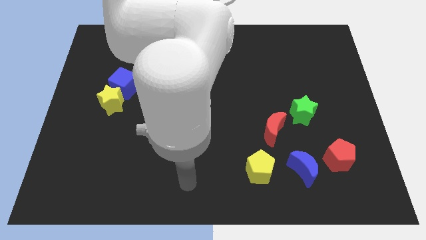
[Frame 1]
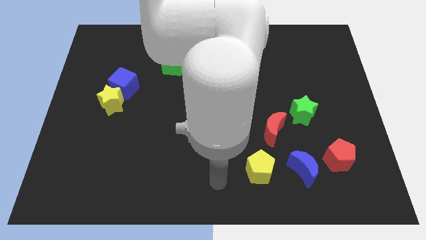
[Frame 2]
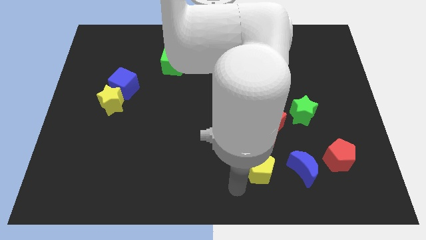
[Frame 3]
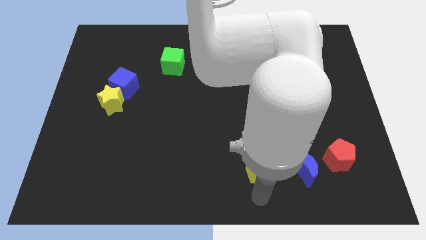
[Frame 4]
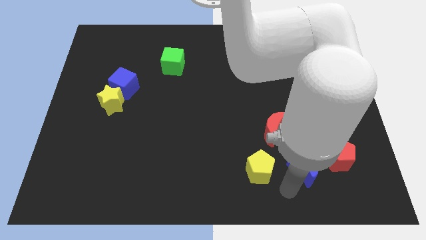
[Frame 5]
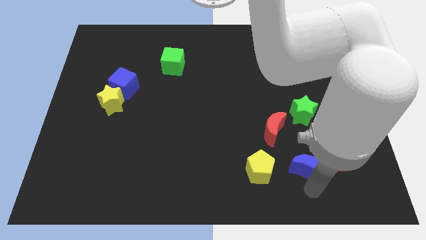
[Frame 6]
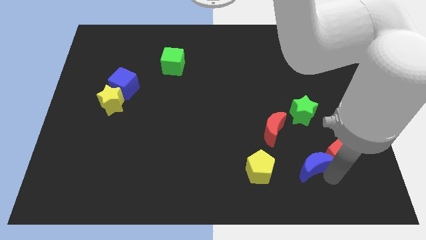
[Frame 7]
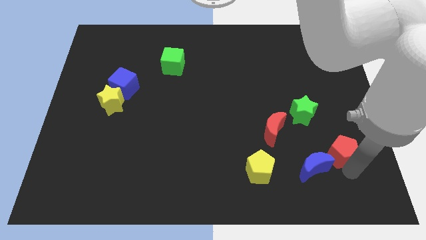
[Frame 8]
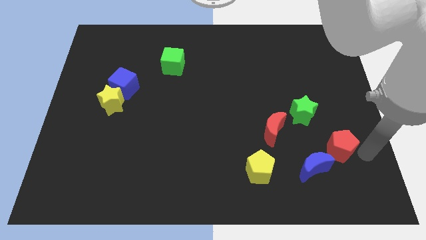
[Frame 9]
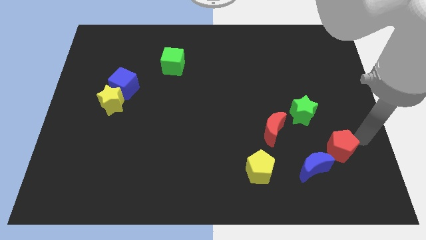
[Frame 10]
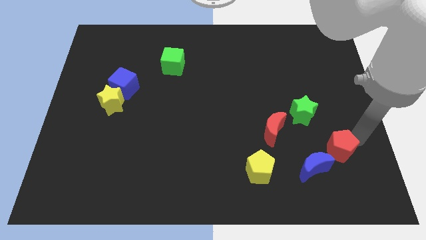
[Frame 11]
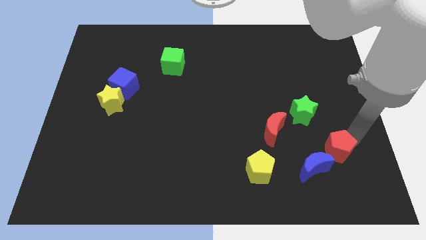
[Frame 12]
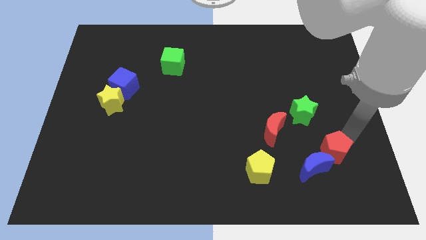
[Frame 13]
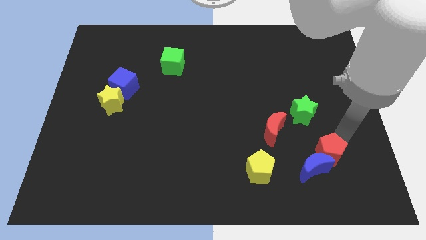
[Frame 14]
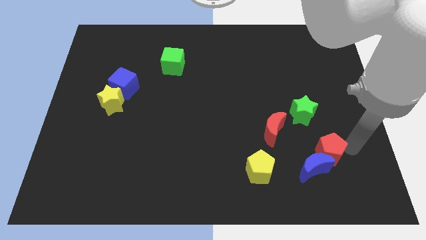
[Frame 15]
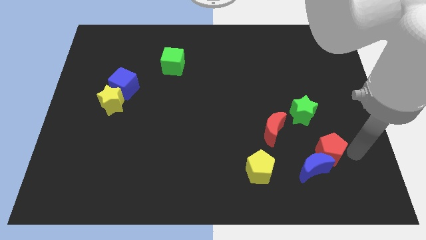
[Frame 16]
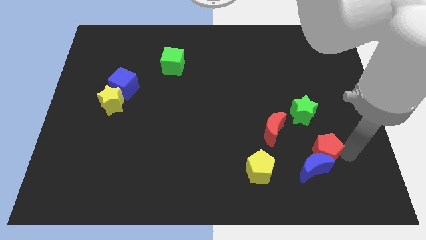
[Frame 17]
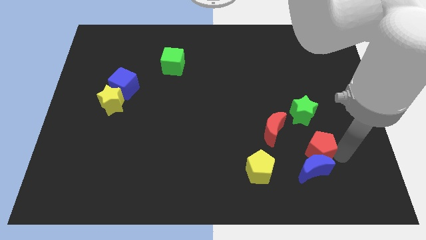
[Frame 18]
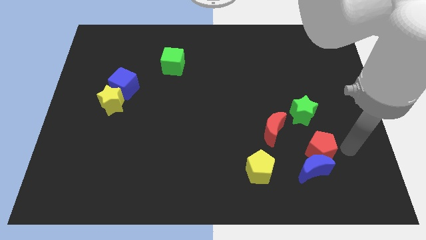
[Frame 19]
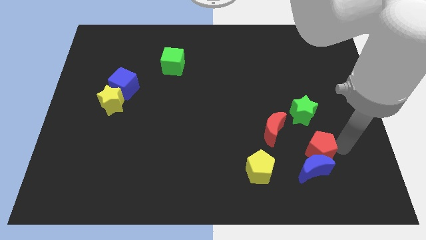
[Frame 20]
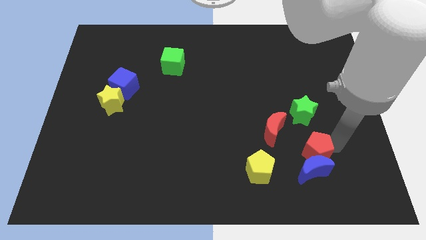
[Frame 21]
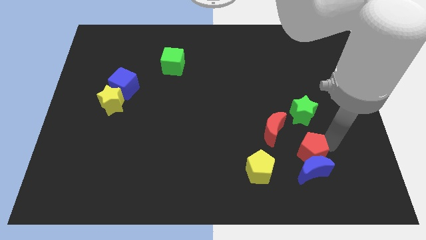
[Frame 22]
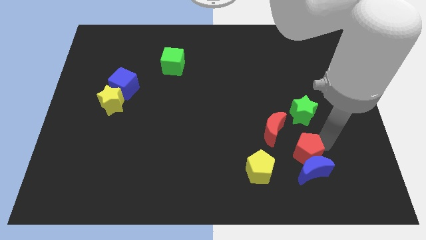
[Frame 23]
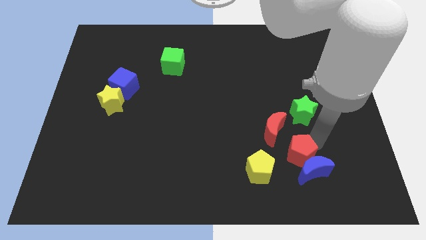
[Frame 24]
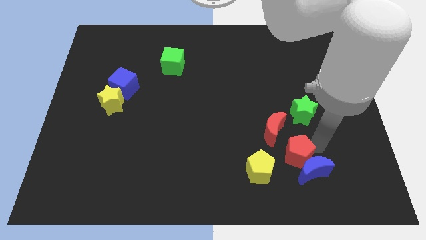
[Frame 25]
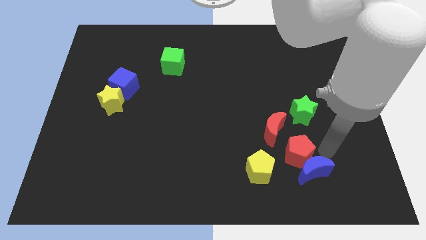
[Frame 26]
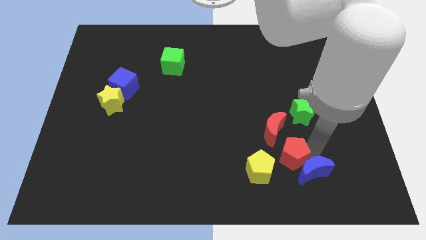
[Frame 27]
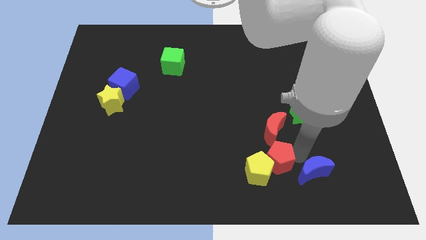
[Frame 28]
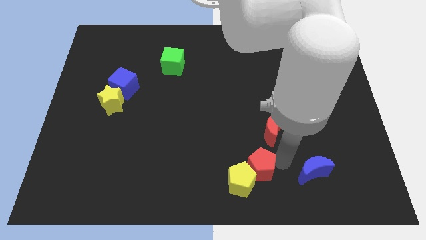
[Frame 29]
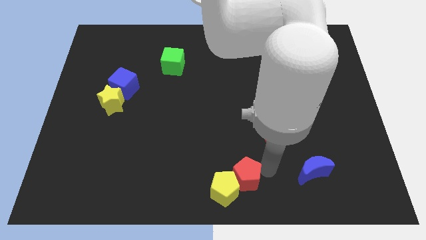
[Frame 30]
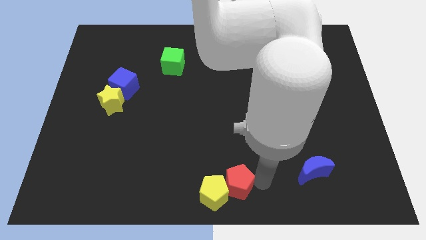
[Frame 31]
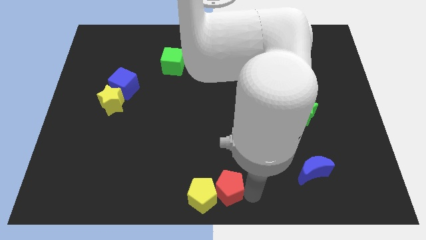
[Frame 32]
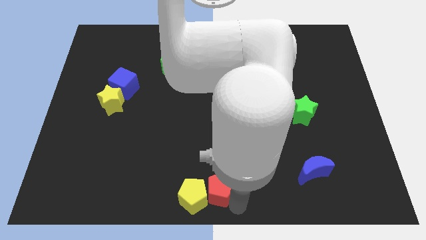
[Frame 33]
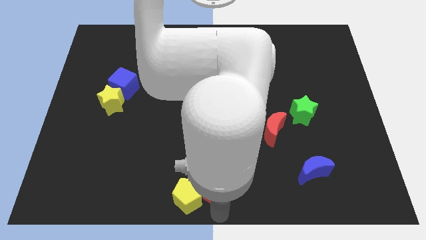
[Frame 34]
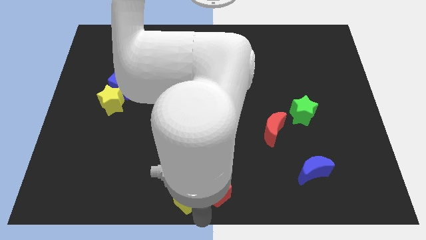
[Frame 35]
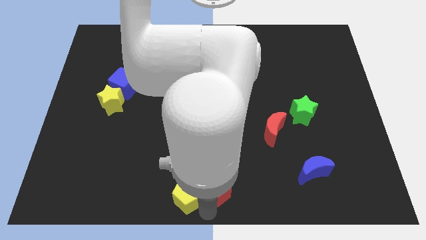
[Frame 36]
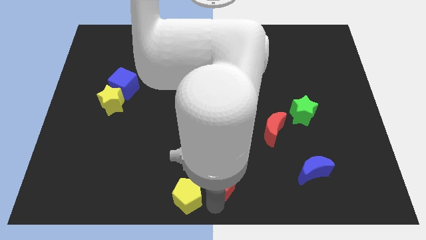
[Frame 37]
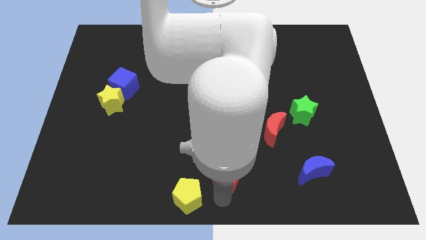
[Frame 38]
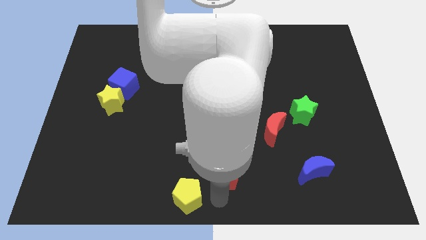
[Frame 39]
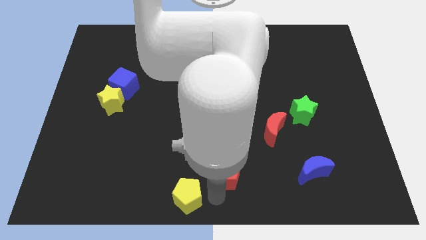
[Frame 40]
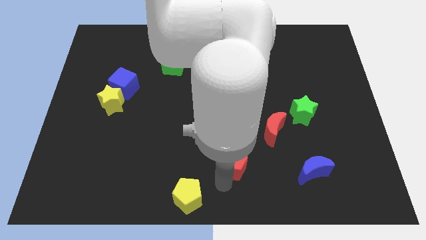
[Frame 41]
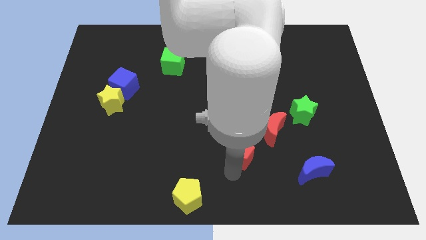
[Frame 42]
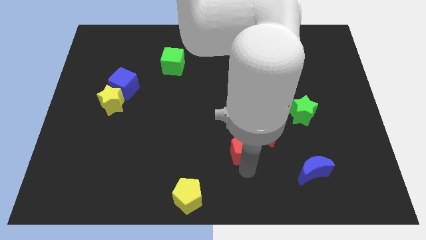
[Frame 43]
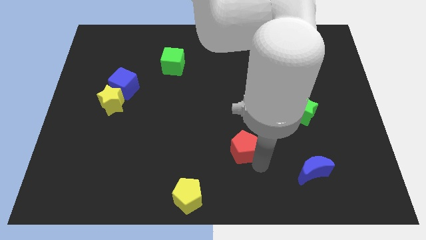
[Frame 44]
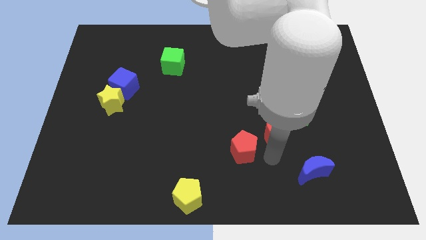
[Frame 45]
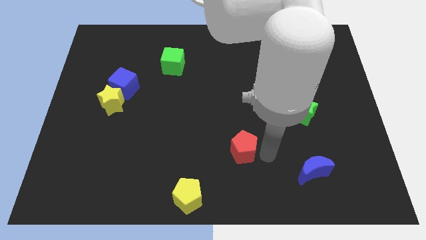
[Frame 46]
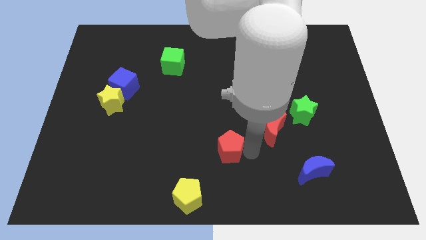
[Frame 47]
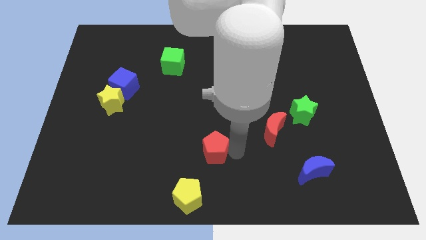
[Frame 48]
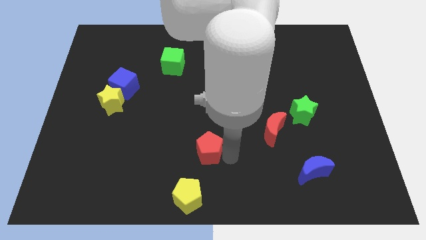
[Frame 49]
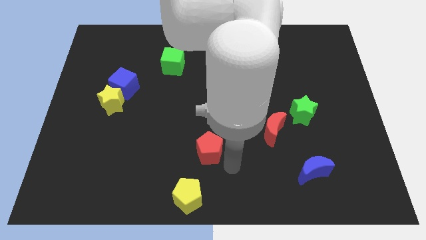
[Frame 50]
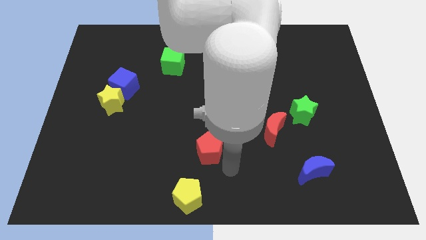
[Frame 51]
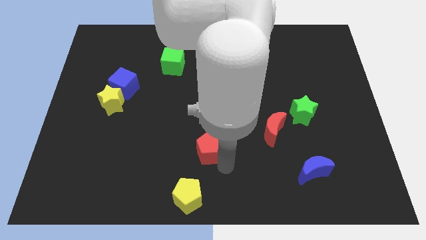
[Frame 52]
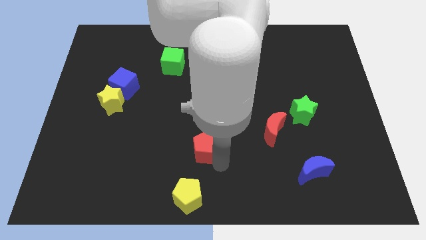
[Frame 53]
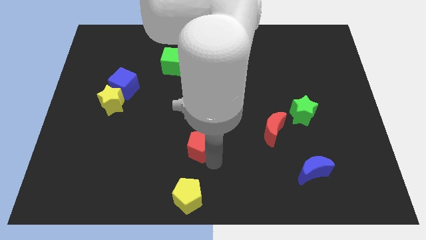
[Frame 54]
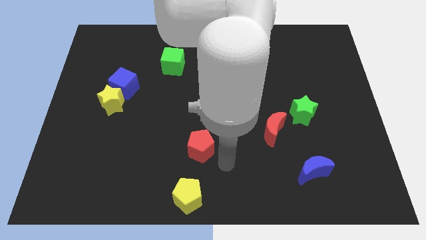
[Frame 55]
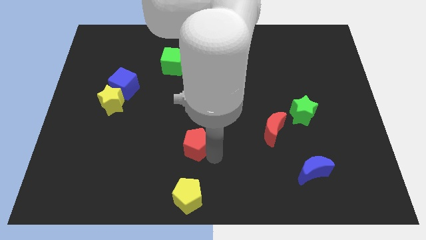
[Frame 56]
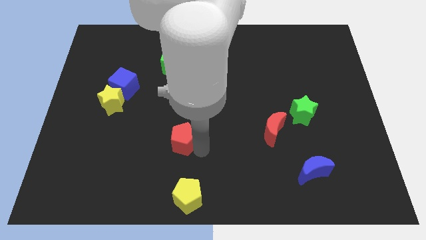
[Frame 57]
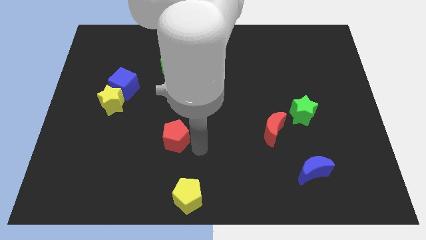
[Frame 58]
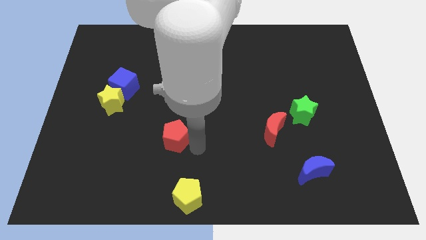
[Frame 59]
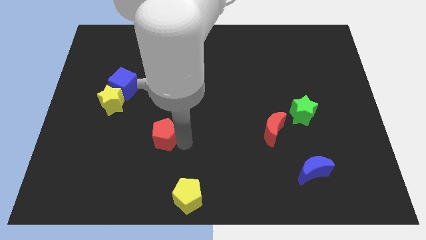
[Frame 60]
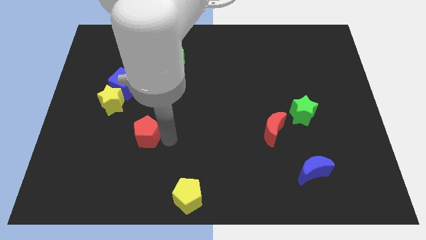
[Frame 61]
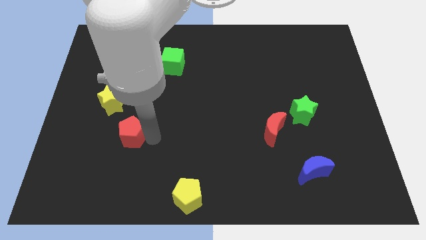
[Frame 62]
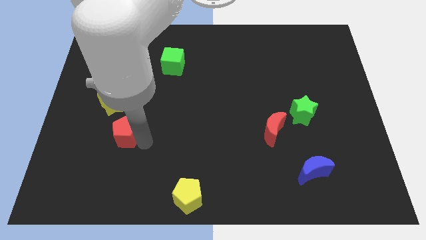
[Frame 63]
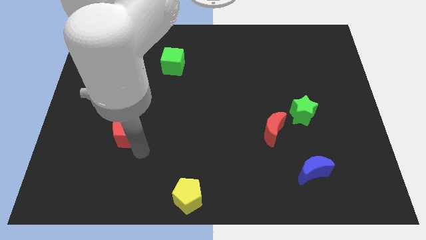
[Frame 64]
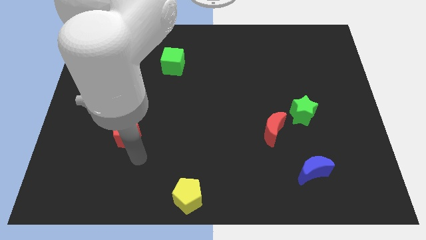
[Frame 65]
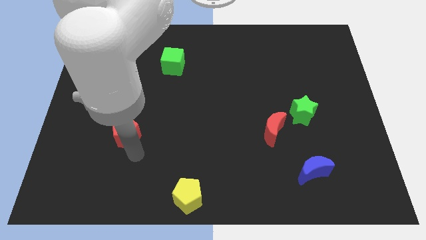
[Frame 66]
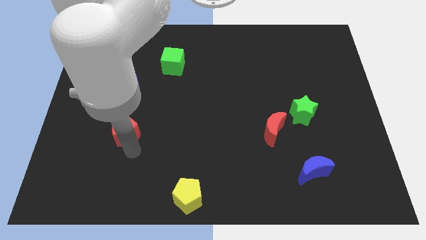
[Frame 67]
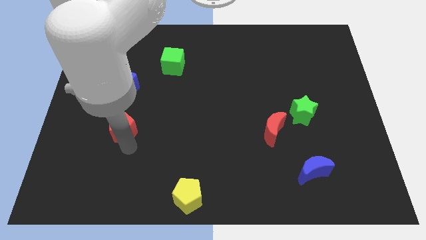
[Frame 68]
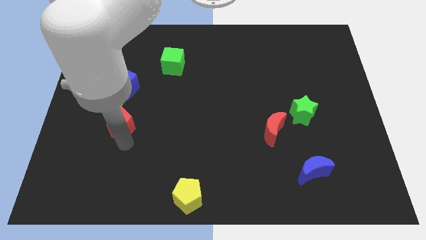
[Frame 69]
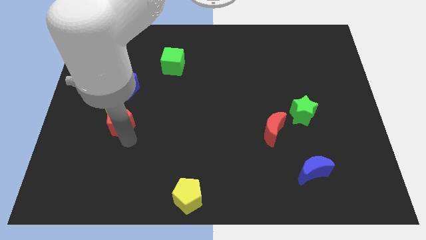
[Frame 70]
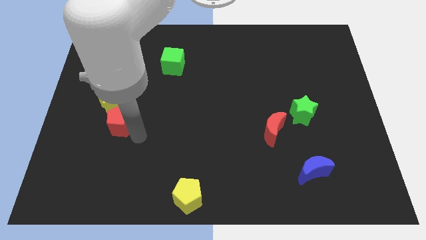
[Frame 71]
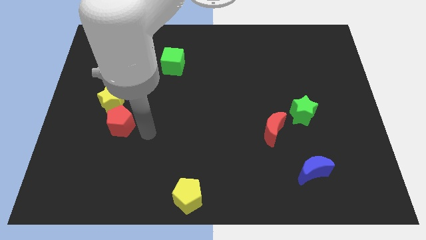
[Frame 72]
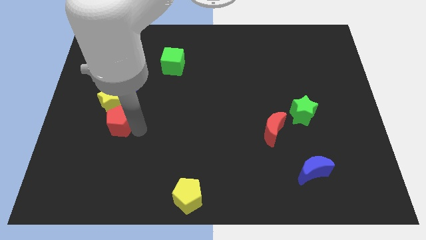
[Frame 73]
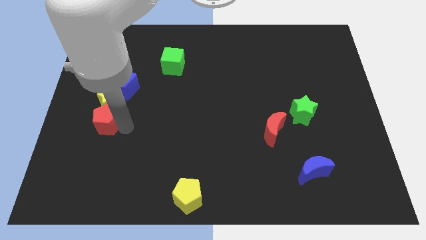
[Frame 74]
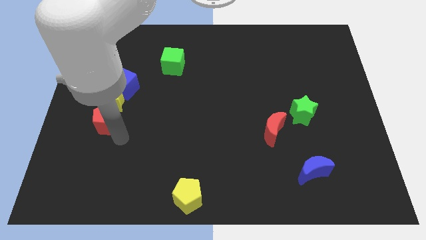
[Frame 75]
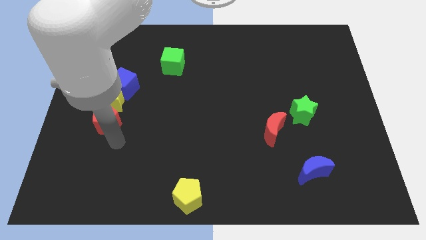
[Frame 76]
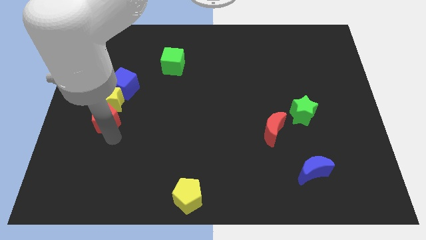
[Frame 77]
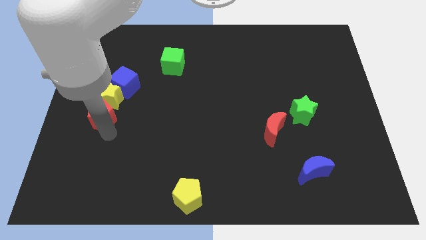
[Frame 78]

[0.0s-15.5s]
push the red pentagon to the bottom left of the blue cube
